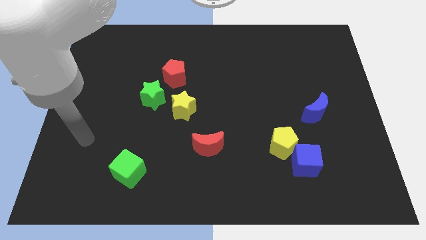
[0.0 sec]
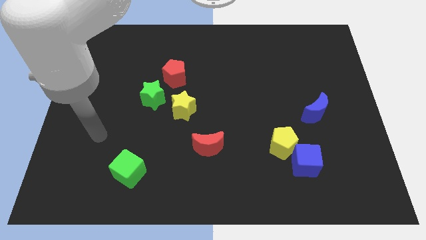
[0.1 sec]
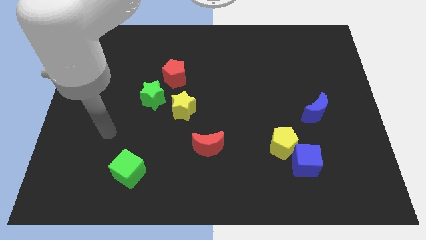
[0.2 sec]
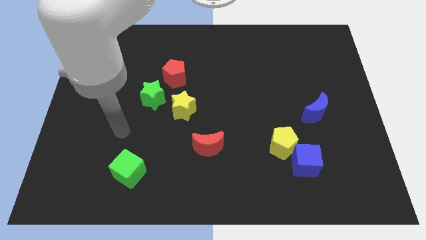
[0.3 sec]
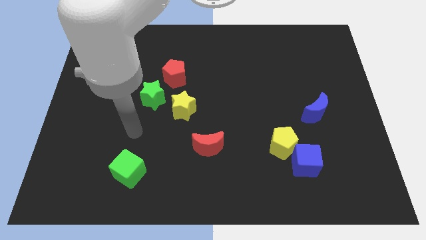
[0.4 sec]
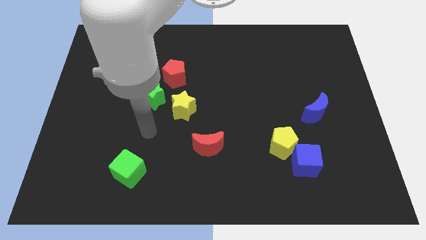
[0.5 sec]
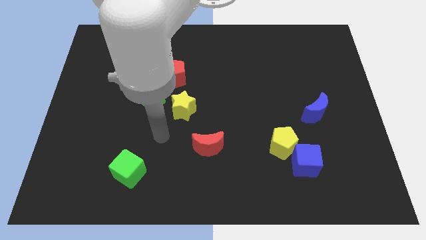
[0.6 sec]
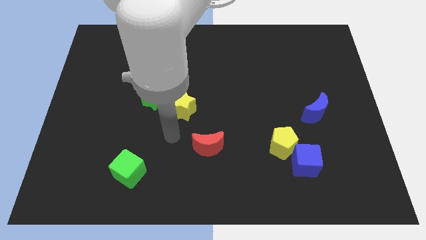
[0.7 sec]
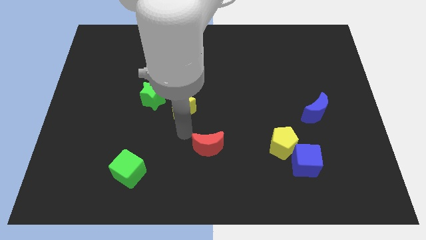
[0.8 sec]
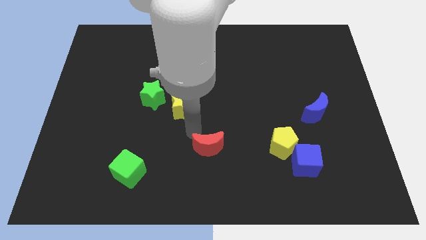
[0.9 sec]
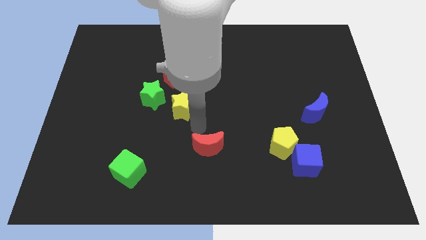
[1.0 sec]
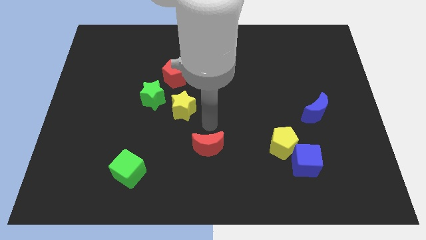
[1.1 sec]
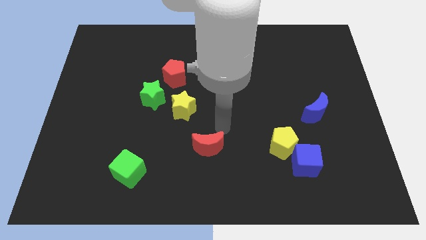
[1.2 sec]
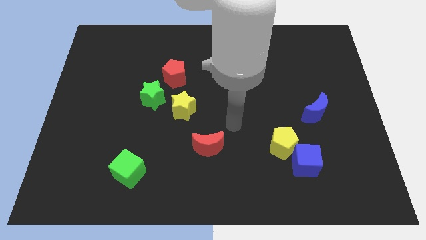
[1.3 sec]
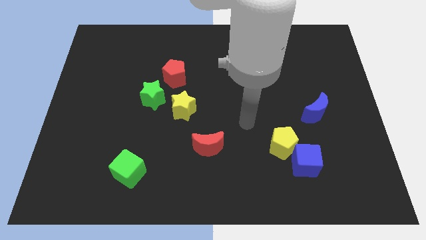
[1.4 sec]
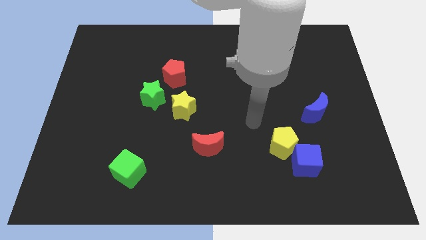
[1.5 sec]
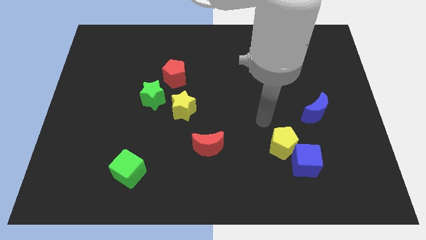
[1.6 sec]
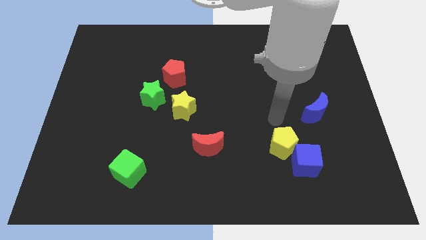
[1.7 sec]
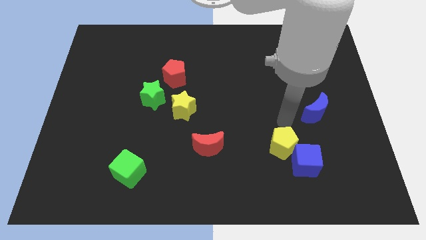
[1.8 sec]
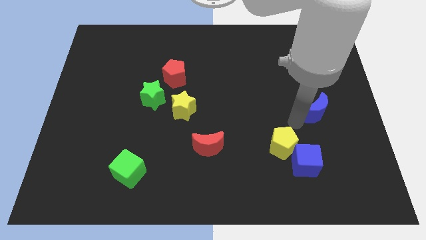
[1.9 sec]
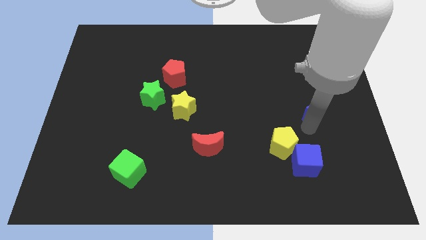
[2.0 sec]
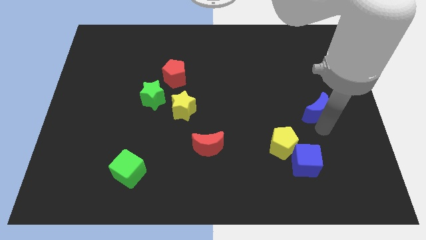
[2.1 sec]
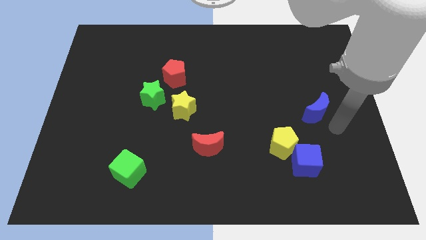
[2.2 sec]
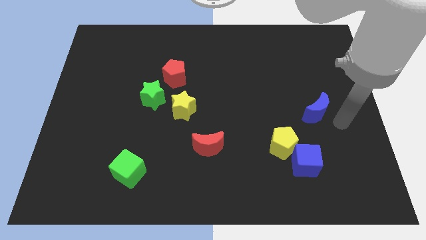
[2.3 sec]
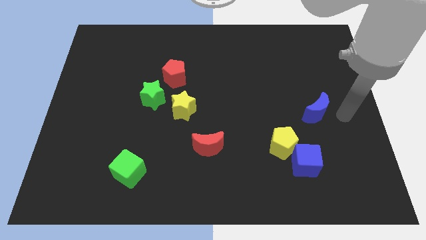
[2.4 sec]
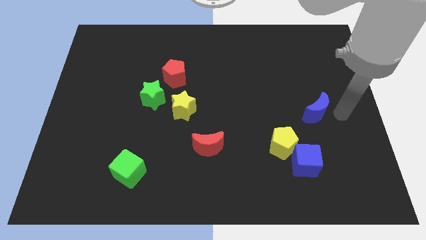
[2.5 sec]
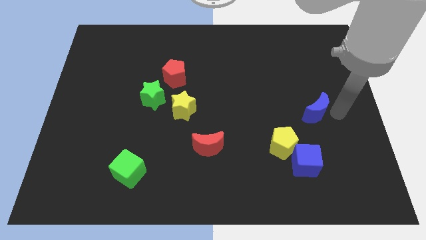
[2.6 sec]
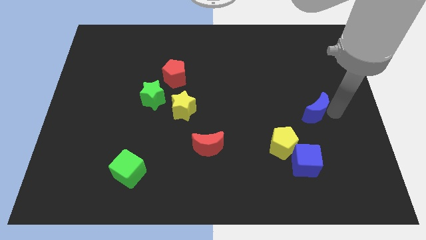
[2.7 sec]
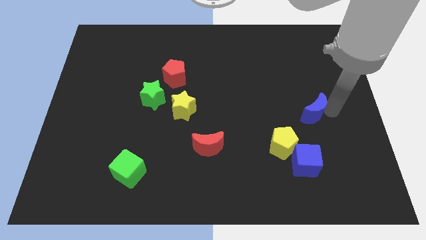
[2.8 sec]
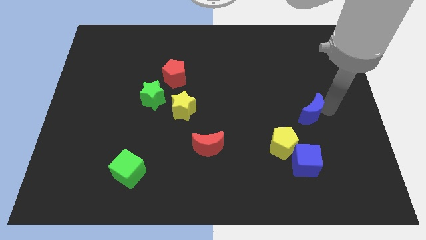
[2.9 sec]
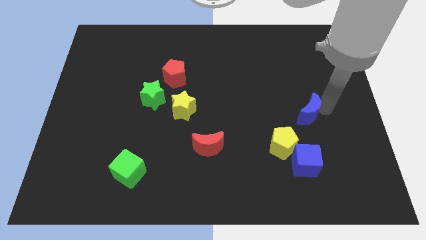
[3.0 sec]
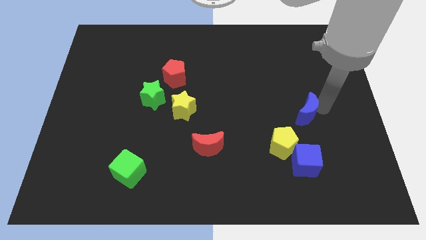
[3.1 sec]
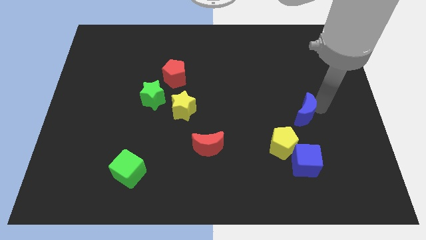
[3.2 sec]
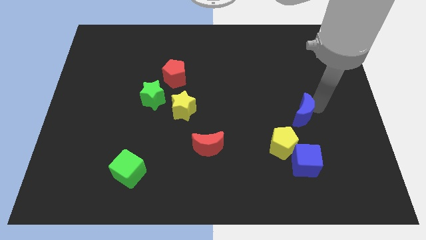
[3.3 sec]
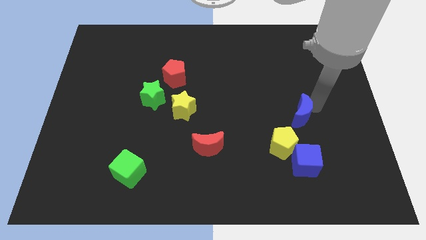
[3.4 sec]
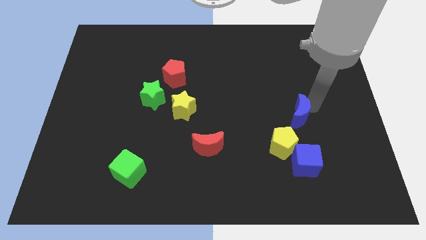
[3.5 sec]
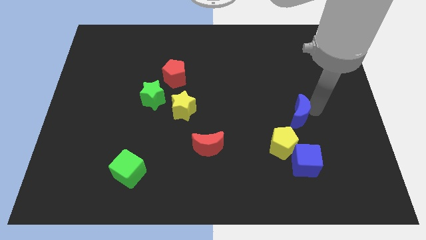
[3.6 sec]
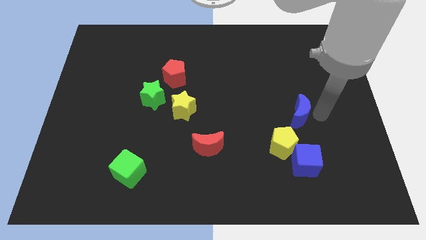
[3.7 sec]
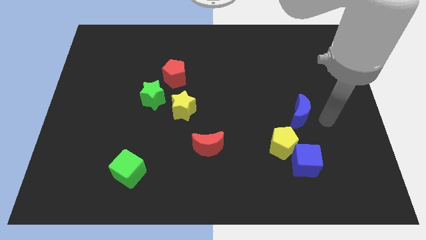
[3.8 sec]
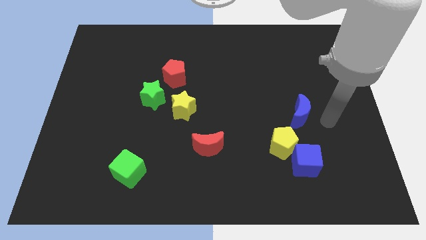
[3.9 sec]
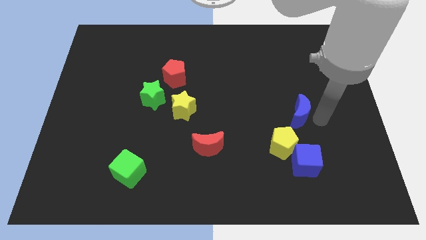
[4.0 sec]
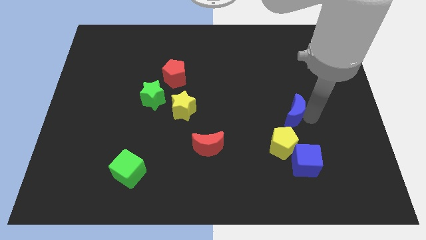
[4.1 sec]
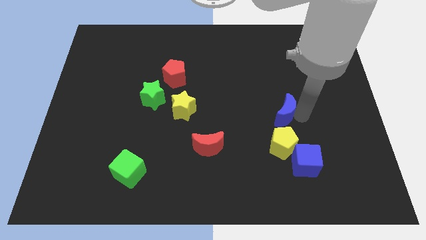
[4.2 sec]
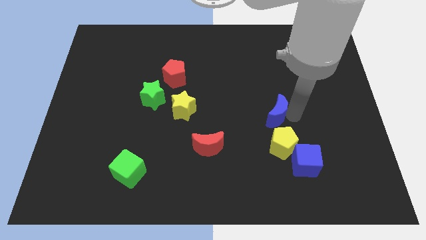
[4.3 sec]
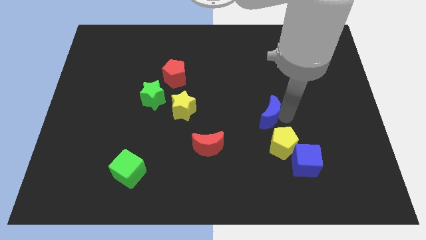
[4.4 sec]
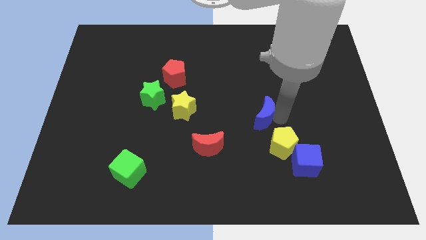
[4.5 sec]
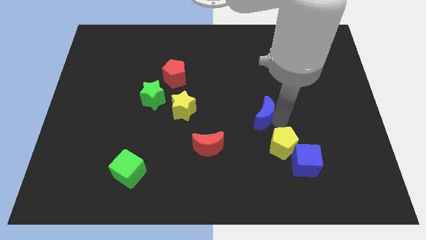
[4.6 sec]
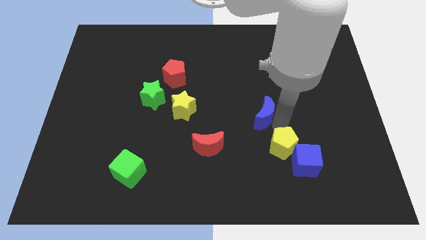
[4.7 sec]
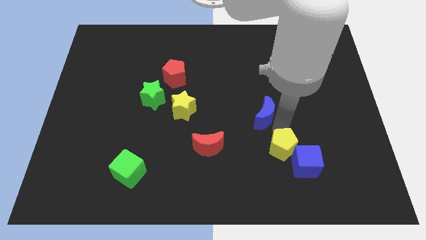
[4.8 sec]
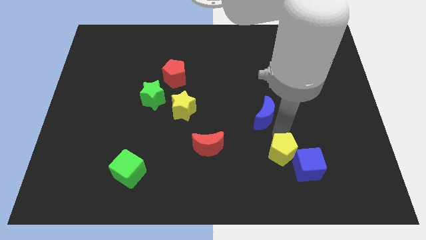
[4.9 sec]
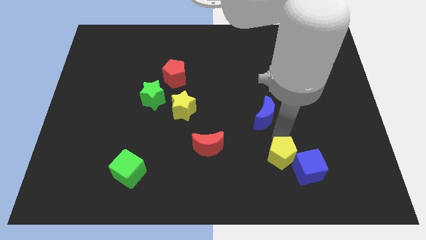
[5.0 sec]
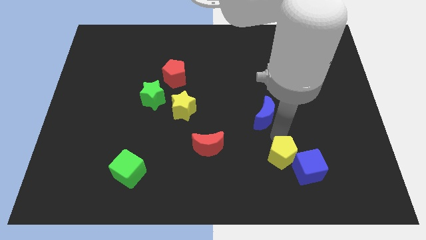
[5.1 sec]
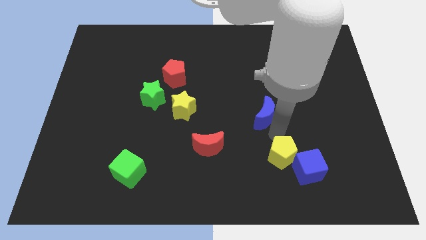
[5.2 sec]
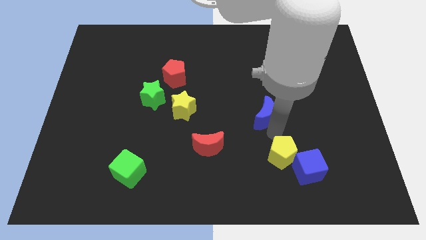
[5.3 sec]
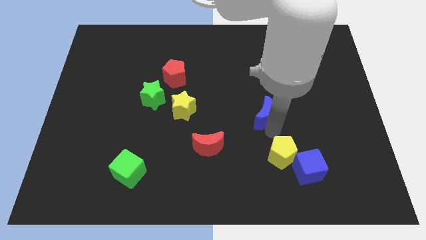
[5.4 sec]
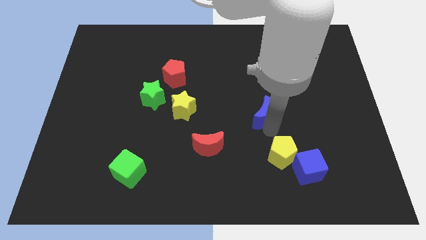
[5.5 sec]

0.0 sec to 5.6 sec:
put the blue moon to the middle of the board
